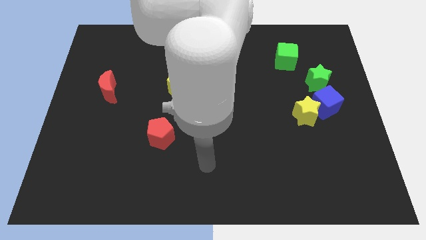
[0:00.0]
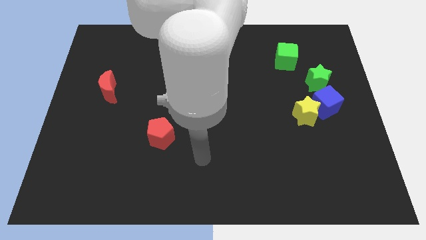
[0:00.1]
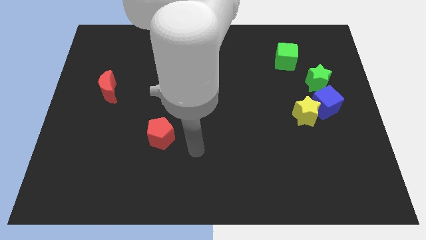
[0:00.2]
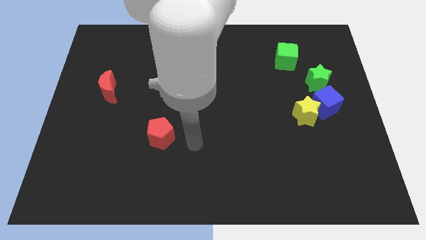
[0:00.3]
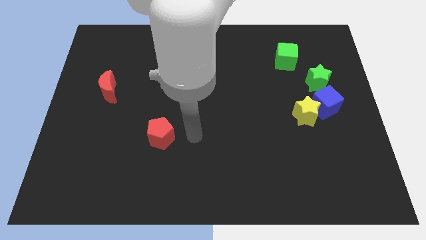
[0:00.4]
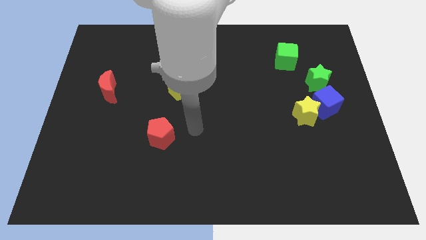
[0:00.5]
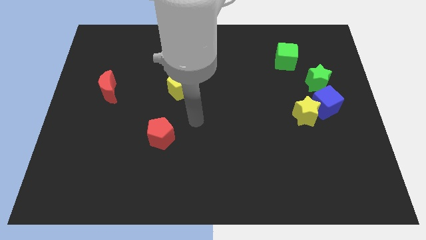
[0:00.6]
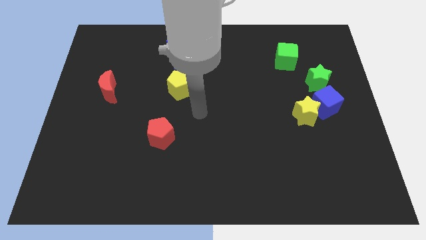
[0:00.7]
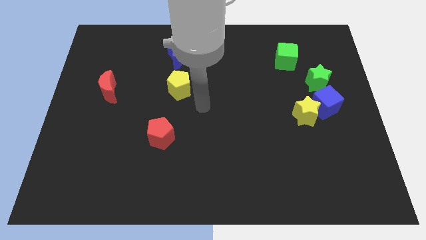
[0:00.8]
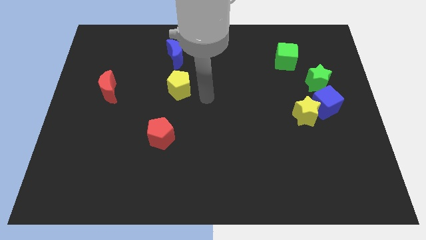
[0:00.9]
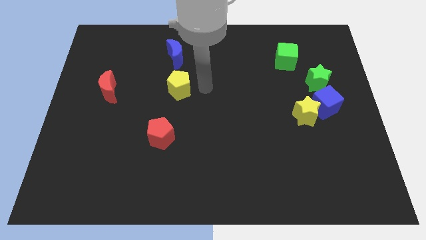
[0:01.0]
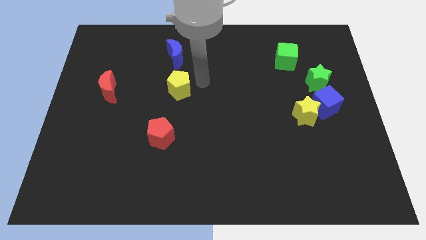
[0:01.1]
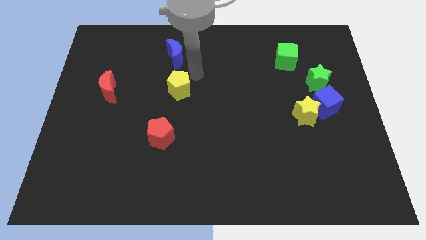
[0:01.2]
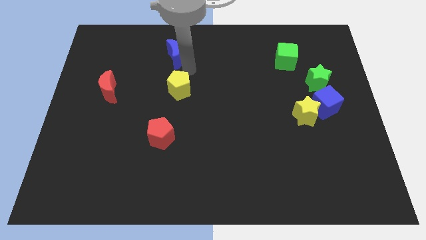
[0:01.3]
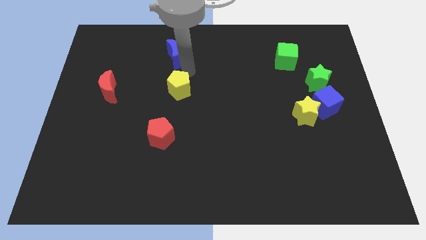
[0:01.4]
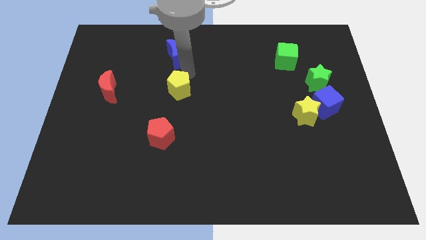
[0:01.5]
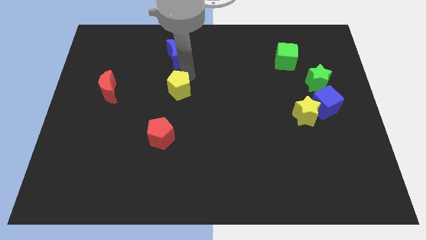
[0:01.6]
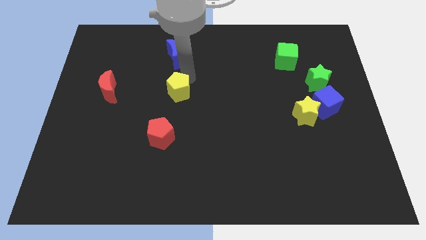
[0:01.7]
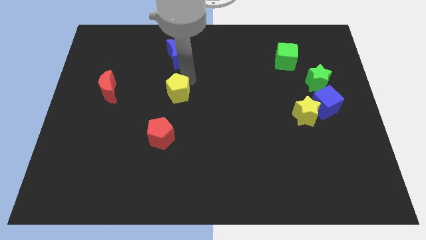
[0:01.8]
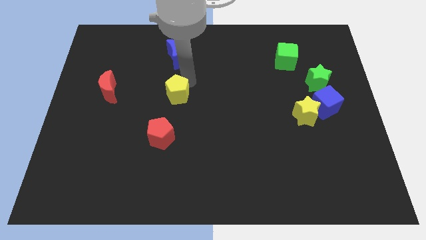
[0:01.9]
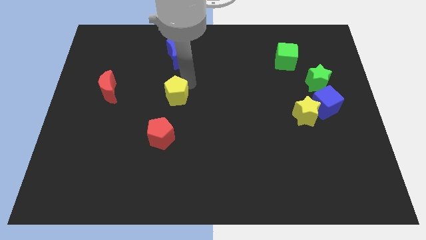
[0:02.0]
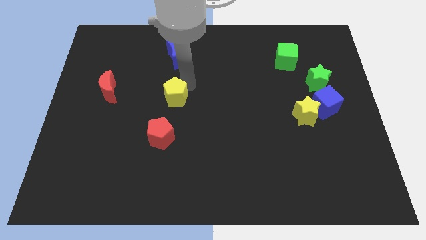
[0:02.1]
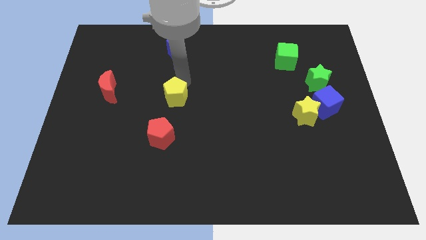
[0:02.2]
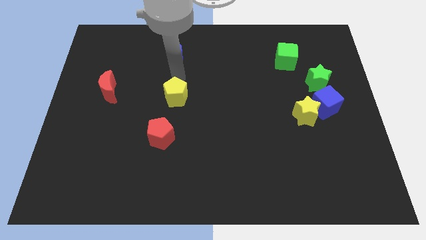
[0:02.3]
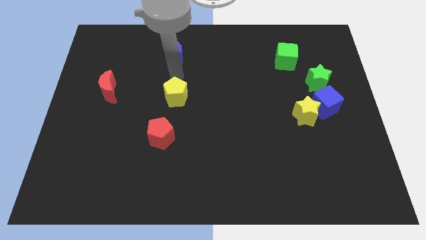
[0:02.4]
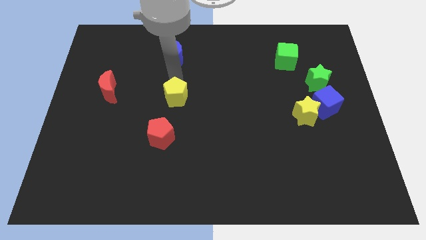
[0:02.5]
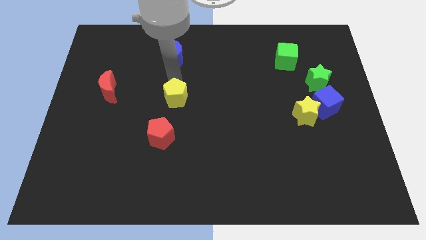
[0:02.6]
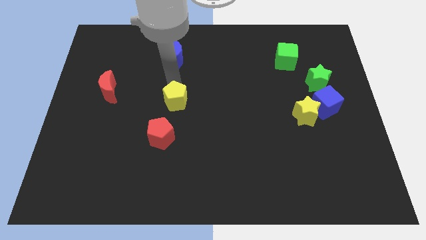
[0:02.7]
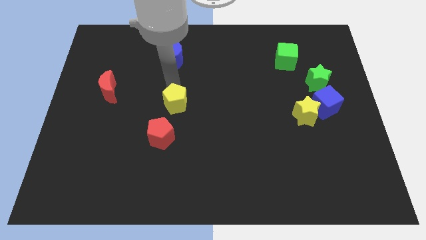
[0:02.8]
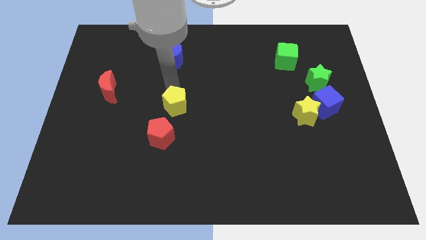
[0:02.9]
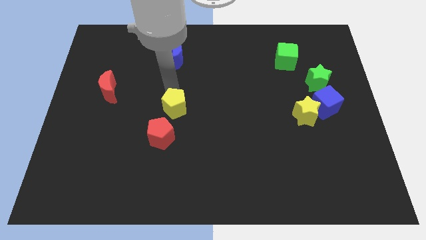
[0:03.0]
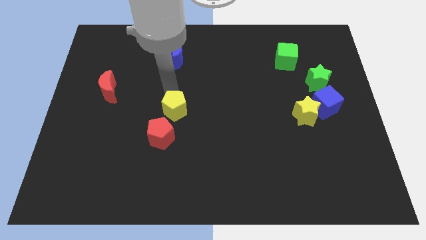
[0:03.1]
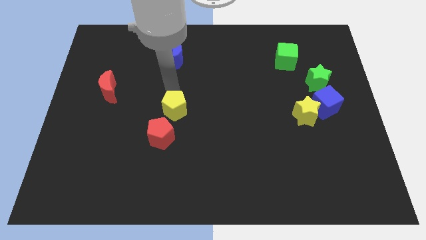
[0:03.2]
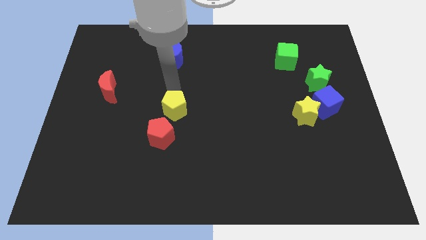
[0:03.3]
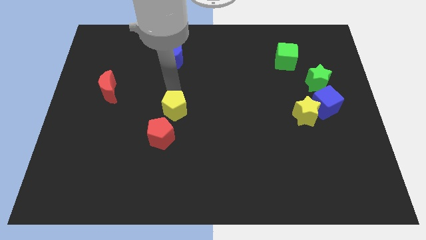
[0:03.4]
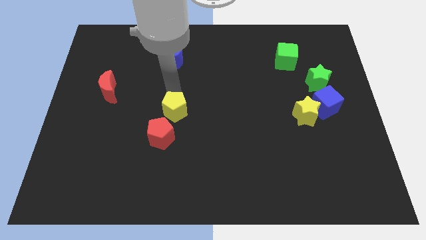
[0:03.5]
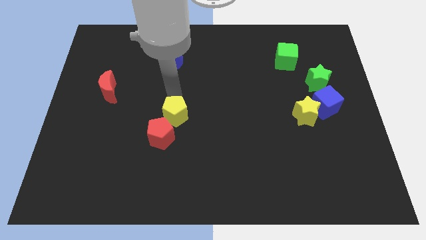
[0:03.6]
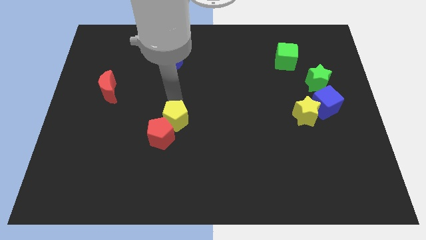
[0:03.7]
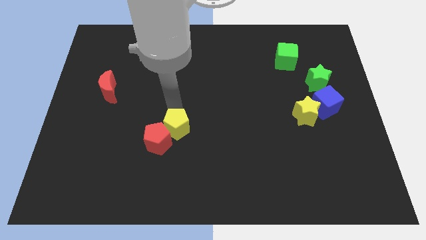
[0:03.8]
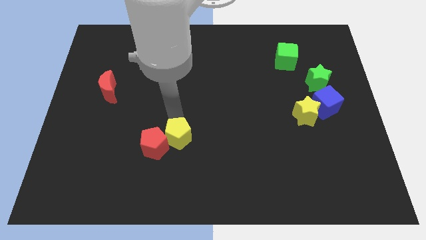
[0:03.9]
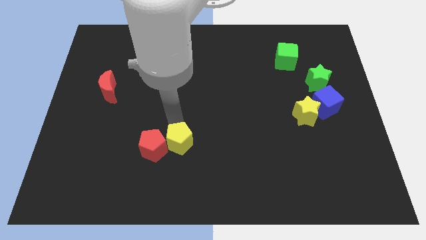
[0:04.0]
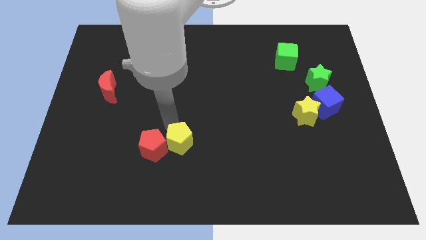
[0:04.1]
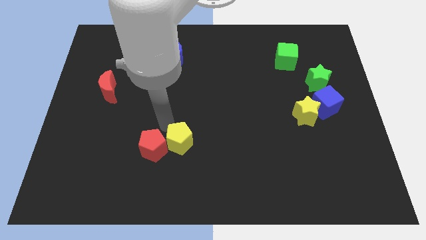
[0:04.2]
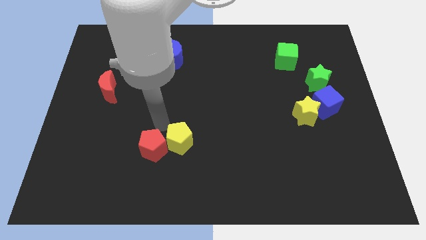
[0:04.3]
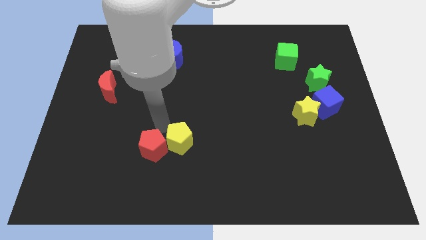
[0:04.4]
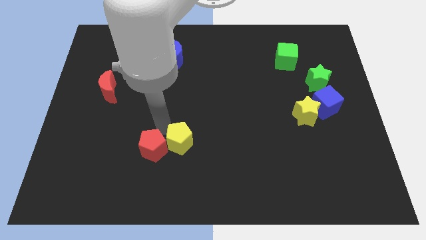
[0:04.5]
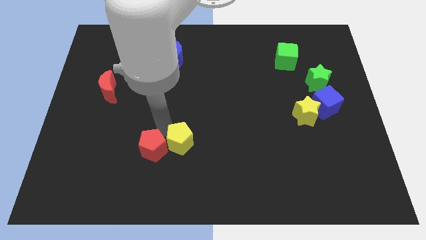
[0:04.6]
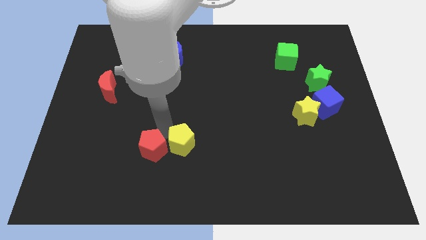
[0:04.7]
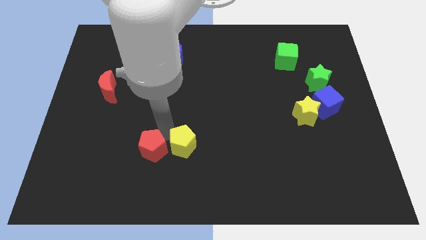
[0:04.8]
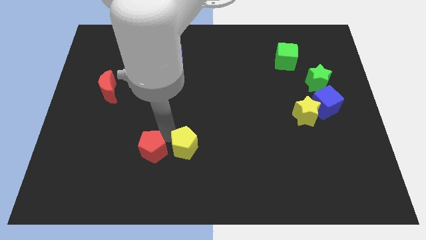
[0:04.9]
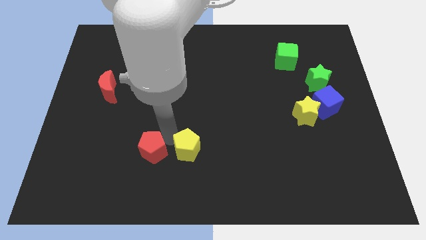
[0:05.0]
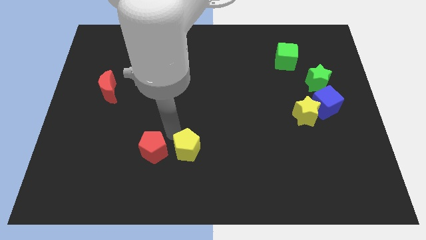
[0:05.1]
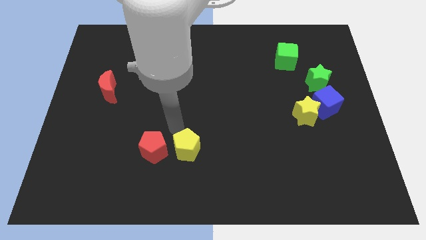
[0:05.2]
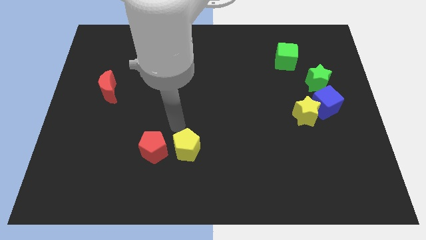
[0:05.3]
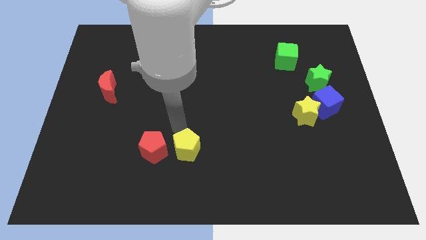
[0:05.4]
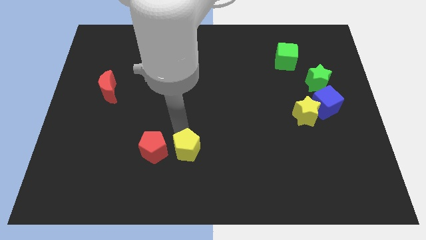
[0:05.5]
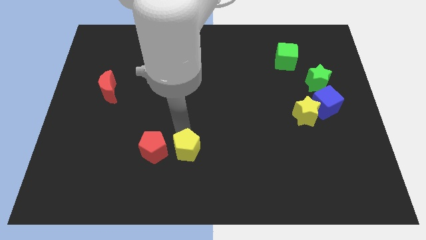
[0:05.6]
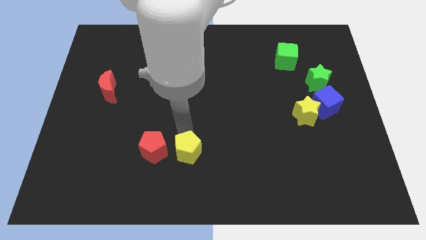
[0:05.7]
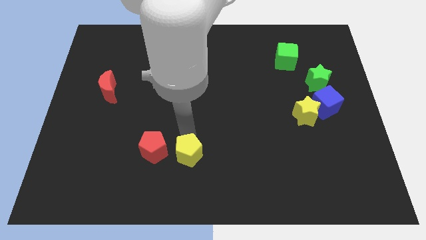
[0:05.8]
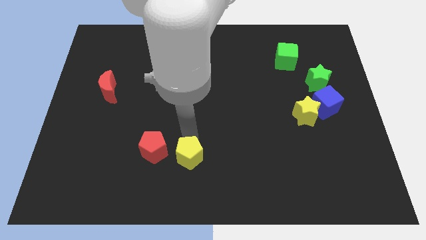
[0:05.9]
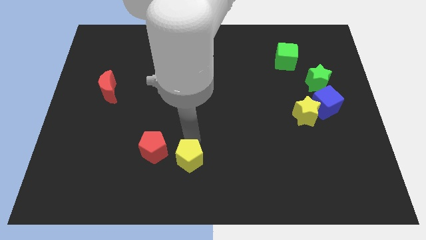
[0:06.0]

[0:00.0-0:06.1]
slide the yellow pentagon to the bottom

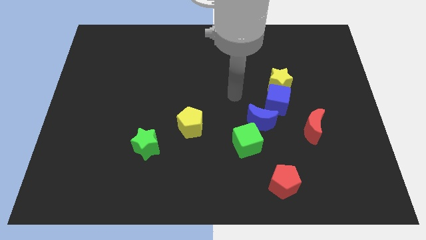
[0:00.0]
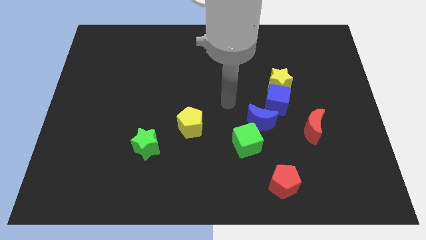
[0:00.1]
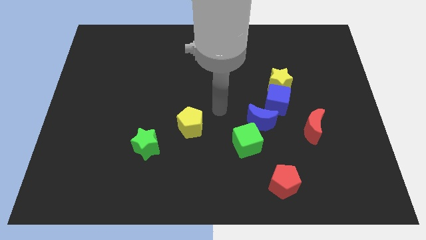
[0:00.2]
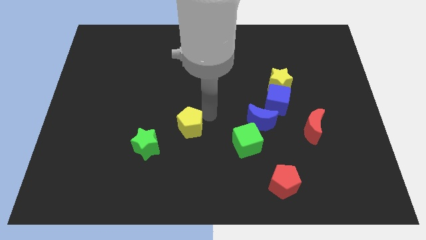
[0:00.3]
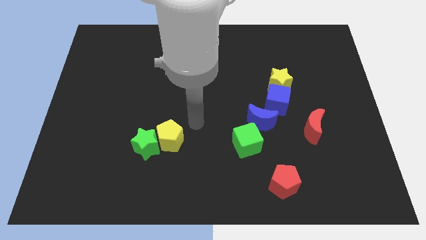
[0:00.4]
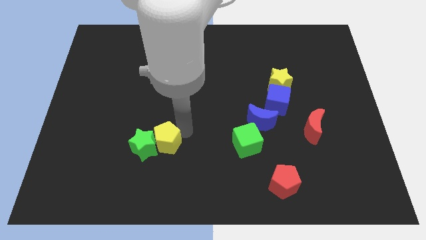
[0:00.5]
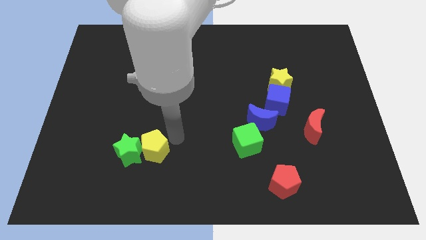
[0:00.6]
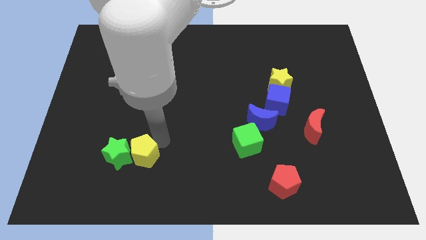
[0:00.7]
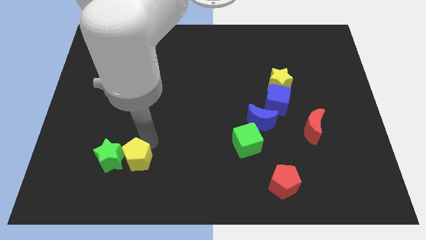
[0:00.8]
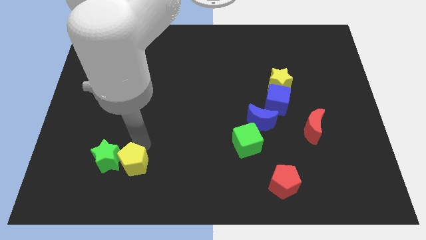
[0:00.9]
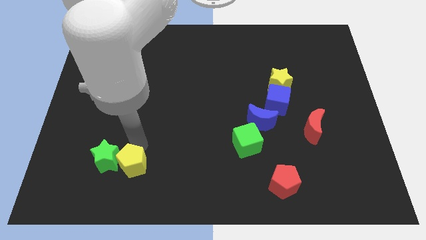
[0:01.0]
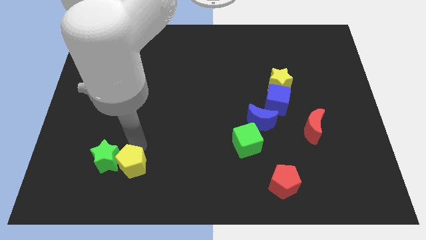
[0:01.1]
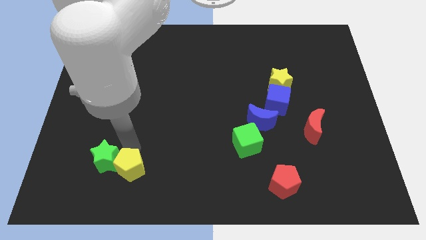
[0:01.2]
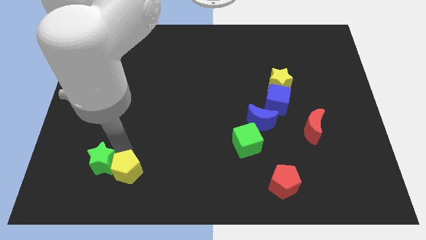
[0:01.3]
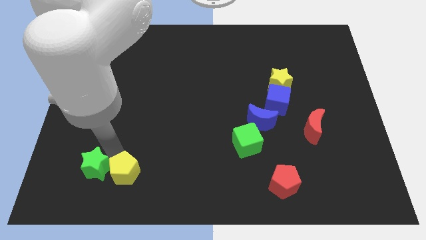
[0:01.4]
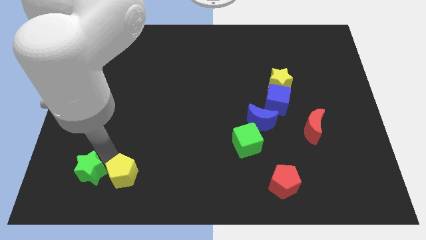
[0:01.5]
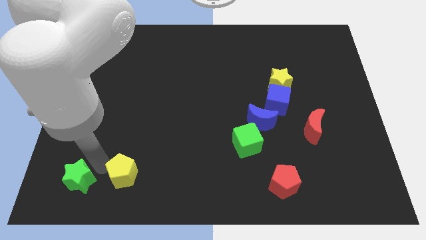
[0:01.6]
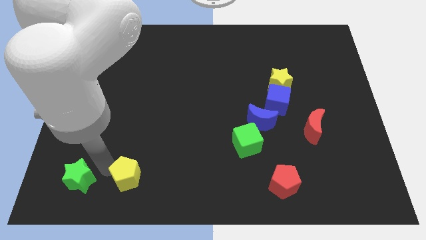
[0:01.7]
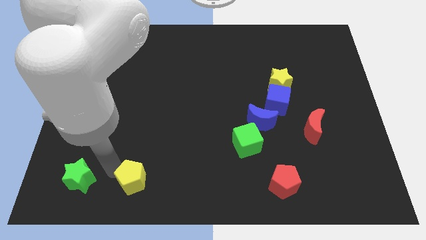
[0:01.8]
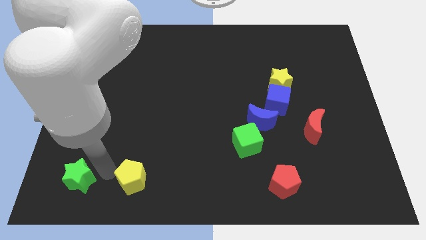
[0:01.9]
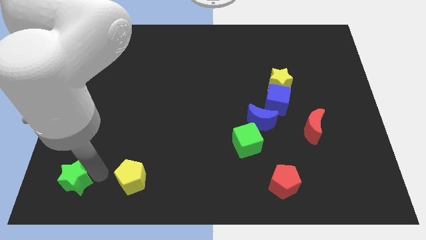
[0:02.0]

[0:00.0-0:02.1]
put the green star to the bottom left of the board
